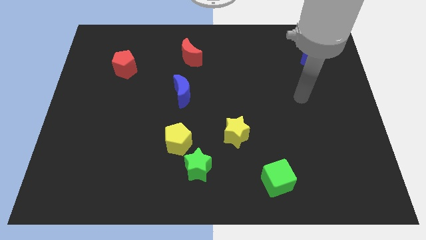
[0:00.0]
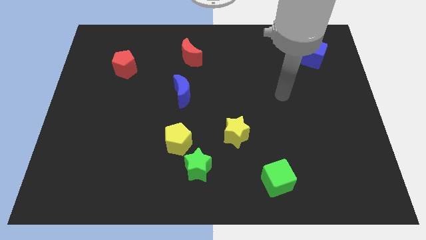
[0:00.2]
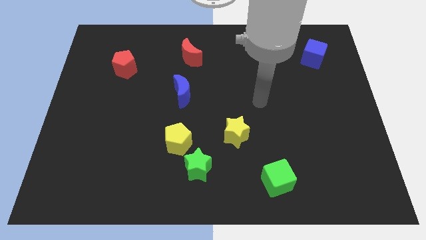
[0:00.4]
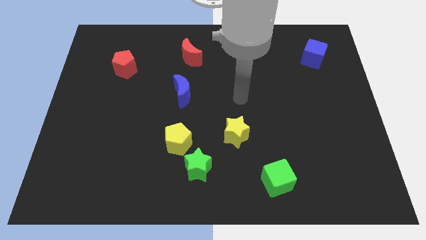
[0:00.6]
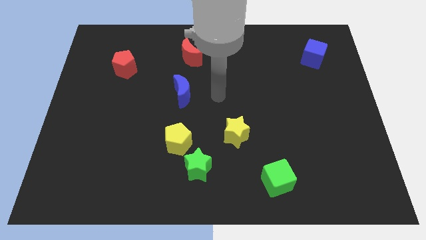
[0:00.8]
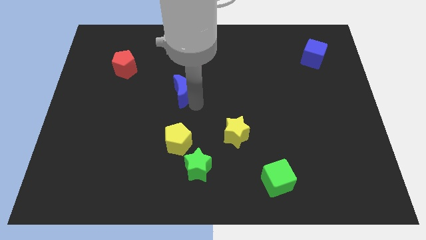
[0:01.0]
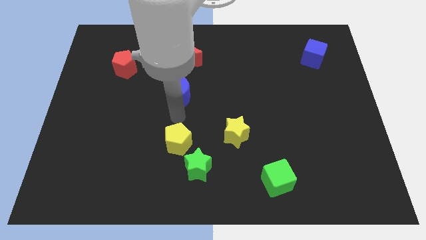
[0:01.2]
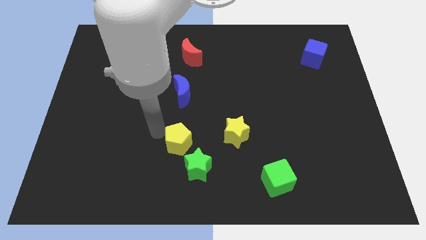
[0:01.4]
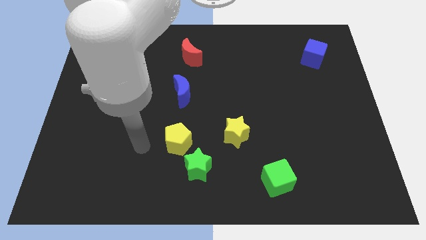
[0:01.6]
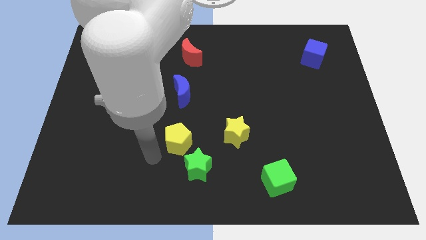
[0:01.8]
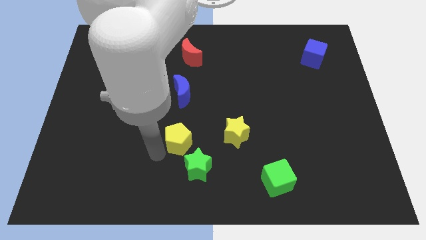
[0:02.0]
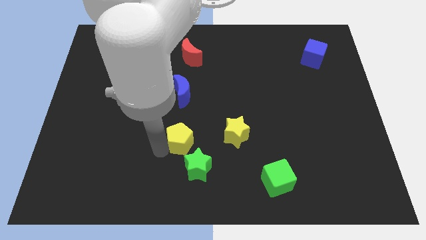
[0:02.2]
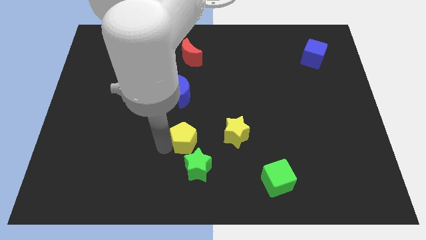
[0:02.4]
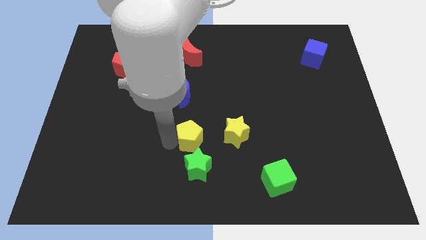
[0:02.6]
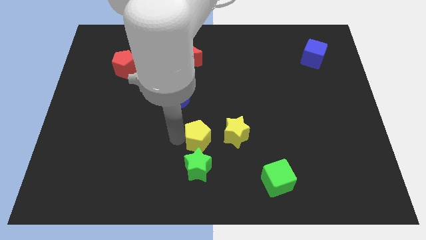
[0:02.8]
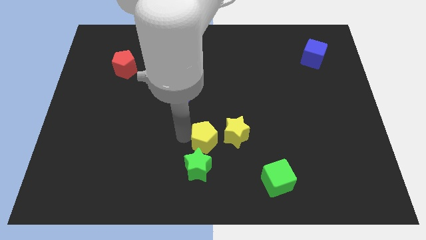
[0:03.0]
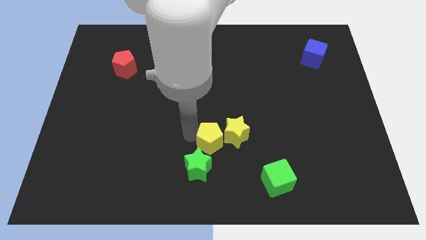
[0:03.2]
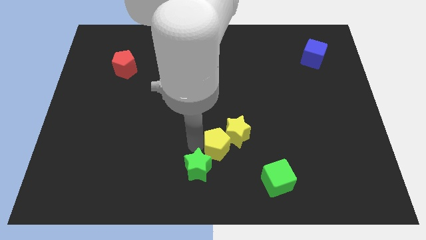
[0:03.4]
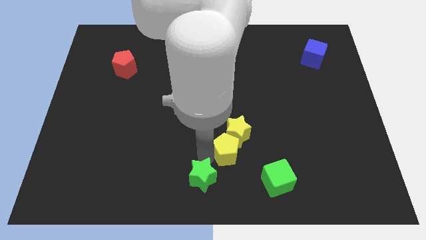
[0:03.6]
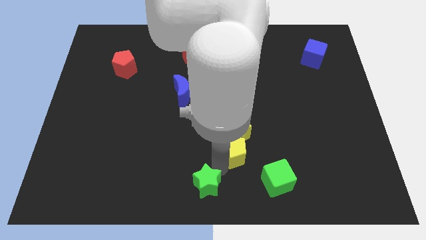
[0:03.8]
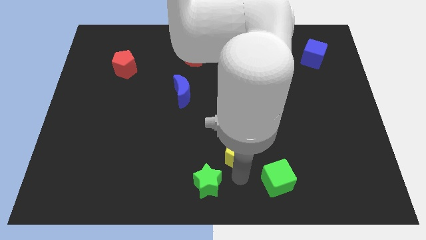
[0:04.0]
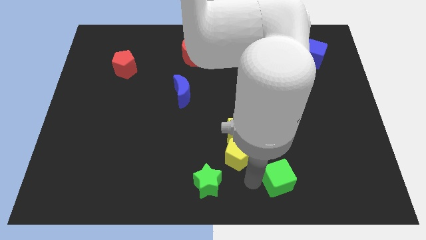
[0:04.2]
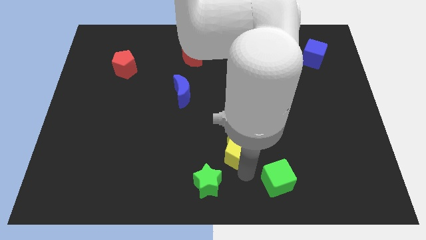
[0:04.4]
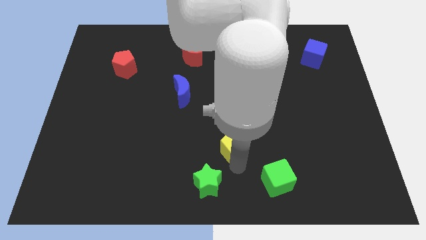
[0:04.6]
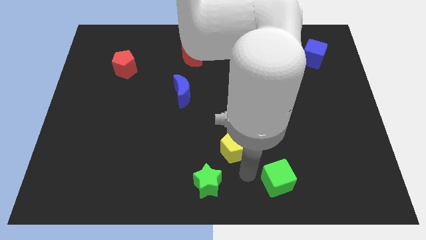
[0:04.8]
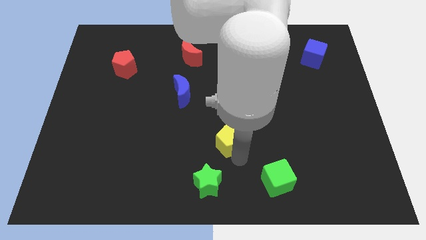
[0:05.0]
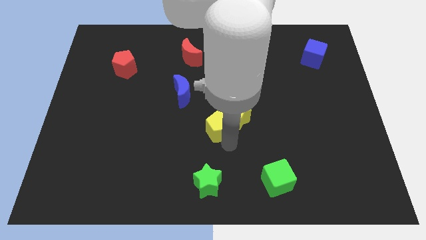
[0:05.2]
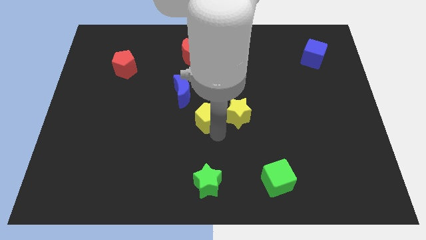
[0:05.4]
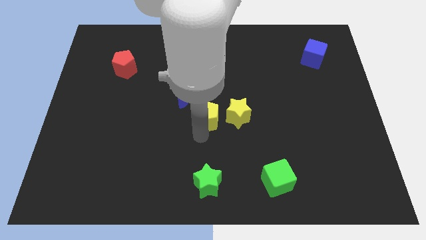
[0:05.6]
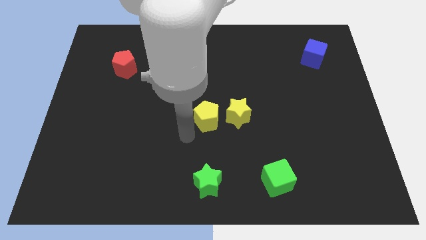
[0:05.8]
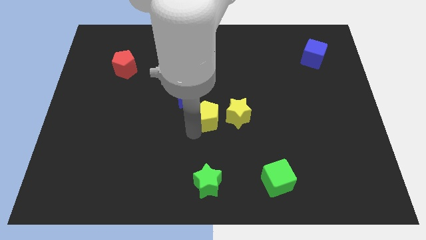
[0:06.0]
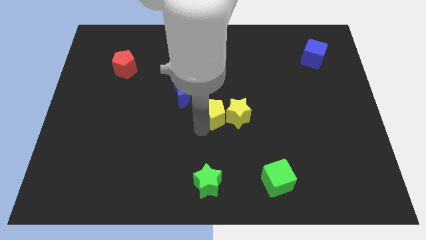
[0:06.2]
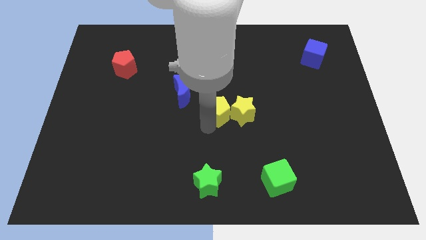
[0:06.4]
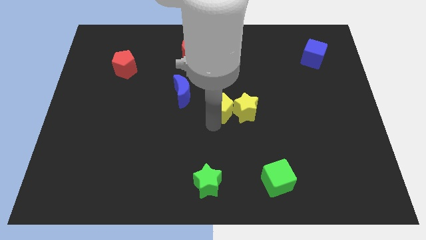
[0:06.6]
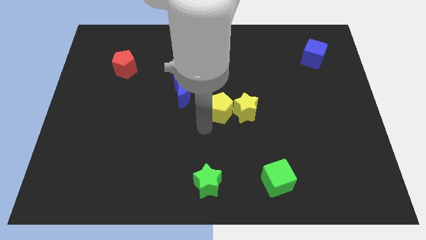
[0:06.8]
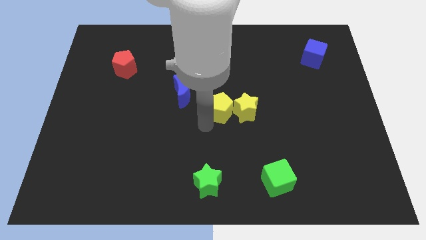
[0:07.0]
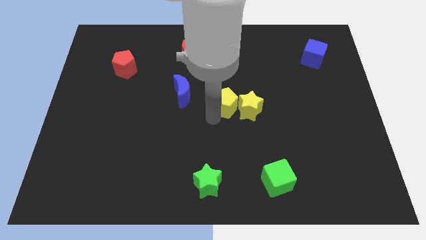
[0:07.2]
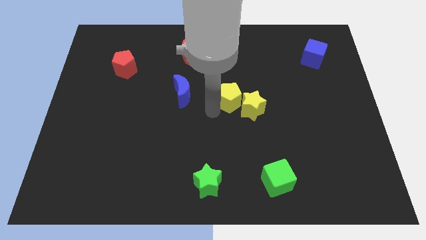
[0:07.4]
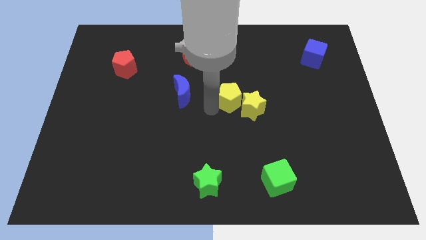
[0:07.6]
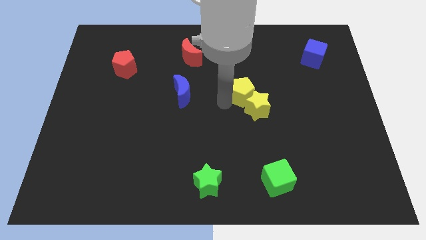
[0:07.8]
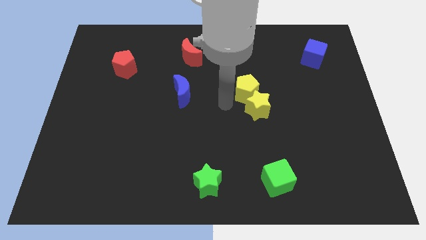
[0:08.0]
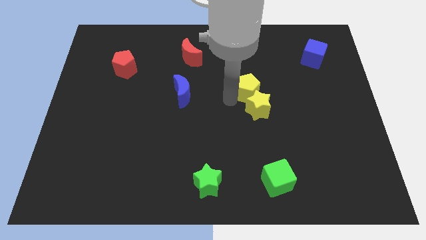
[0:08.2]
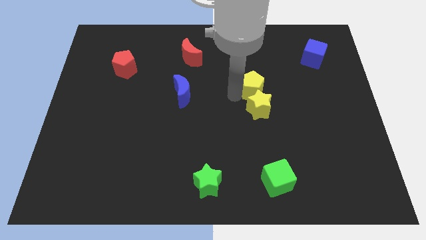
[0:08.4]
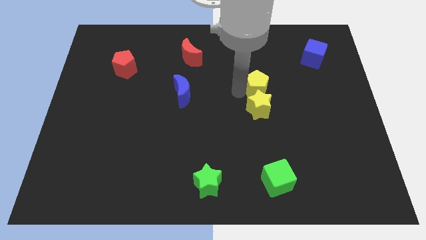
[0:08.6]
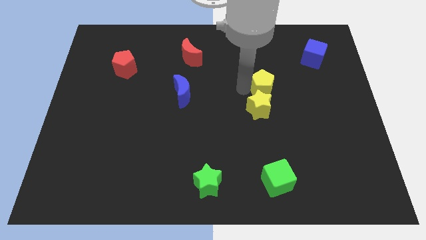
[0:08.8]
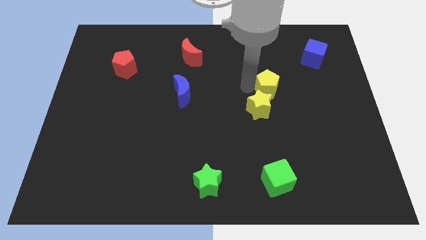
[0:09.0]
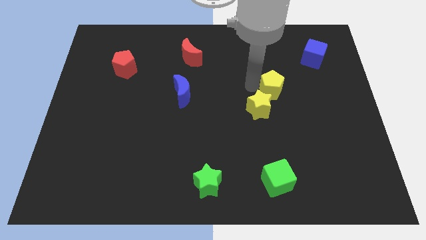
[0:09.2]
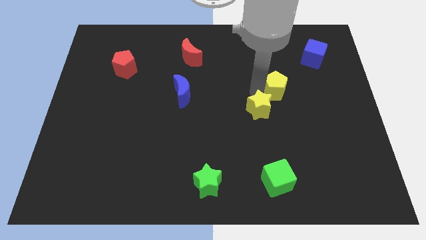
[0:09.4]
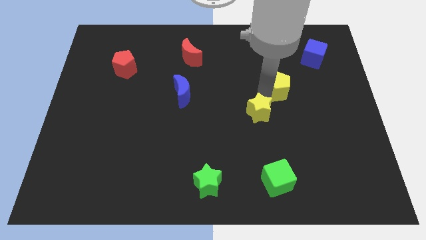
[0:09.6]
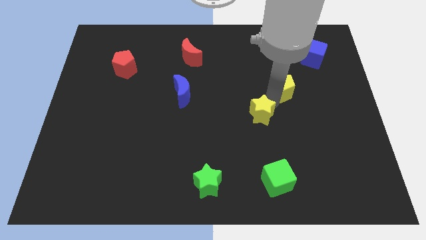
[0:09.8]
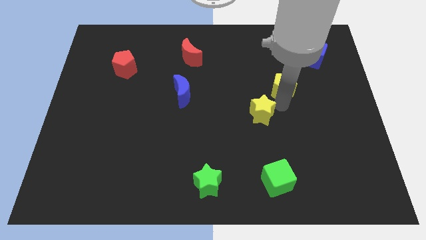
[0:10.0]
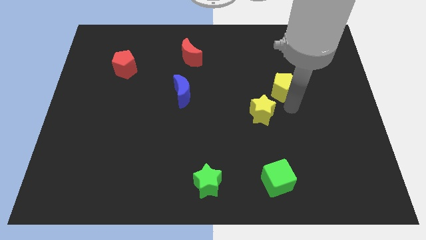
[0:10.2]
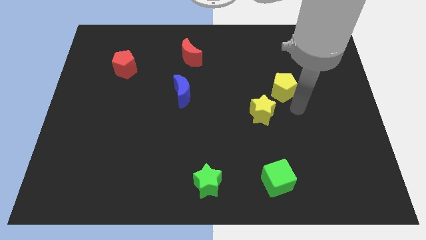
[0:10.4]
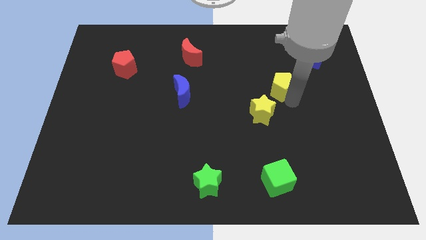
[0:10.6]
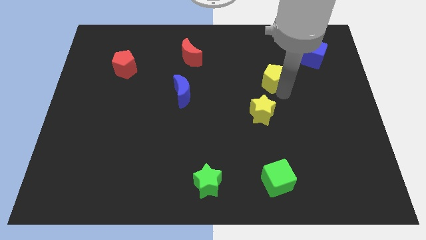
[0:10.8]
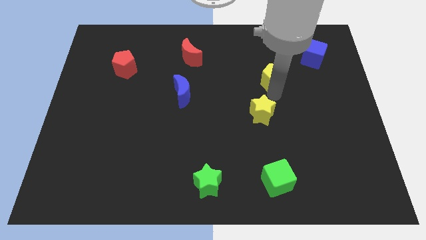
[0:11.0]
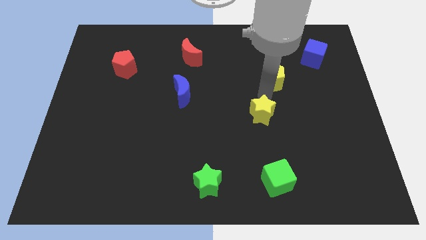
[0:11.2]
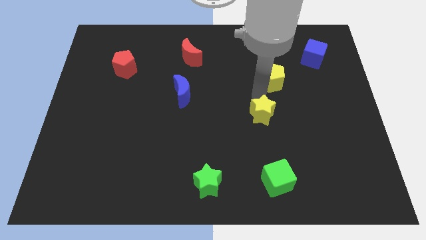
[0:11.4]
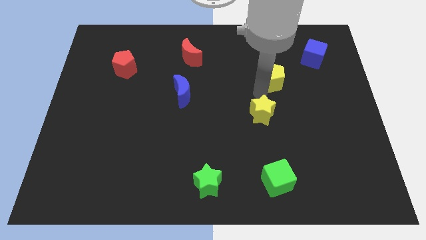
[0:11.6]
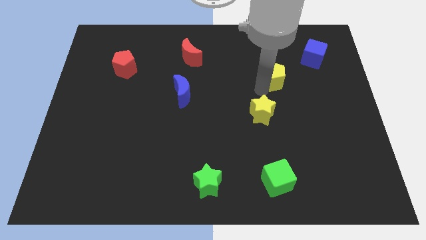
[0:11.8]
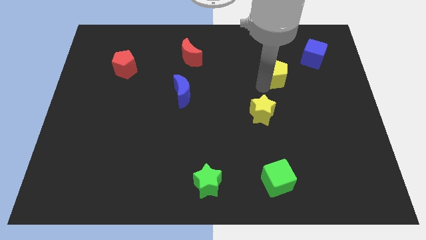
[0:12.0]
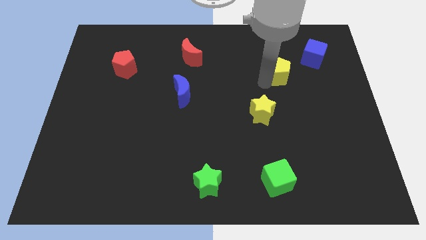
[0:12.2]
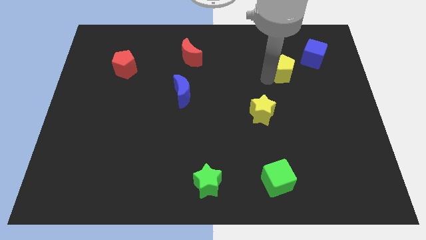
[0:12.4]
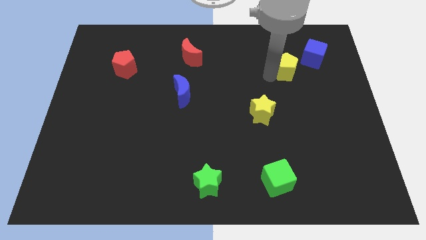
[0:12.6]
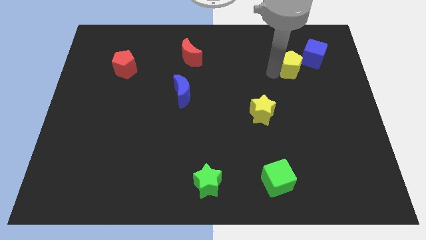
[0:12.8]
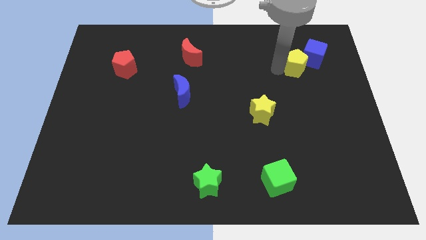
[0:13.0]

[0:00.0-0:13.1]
slide the yellow pentagon towards the blue cube
